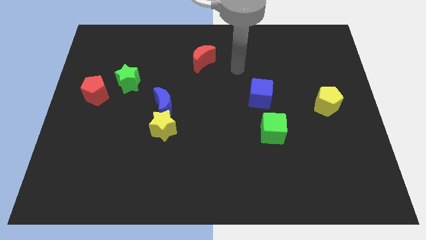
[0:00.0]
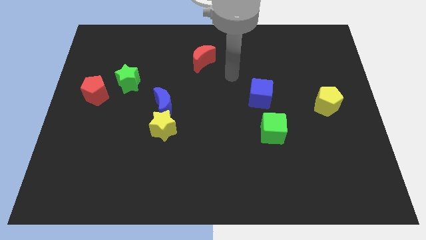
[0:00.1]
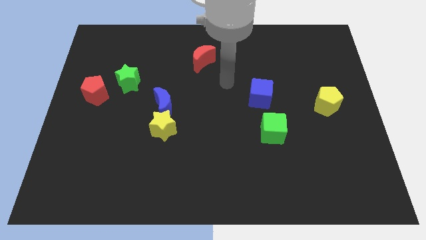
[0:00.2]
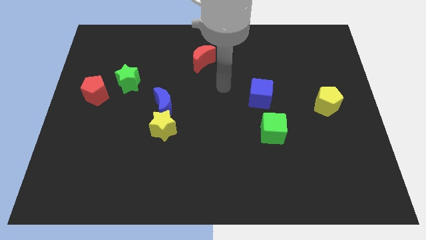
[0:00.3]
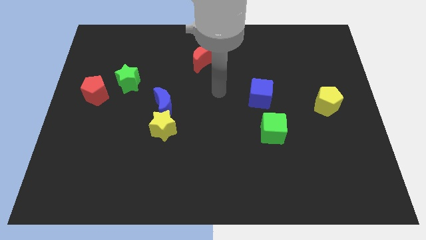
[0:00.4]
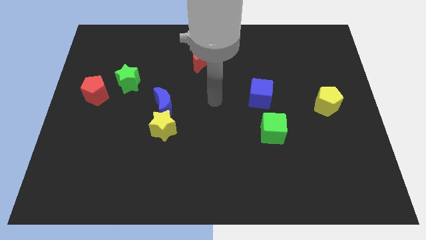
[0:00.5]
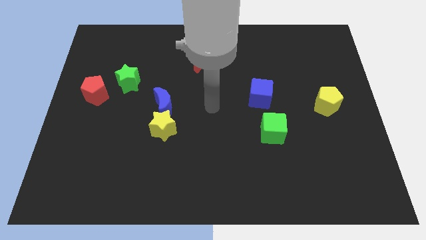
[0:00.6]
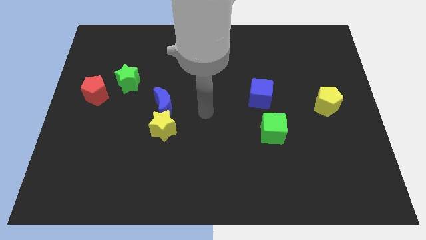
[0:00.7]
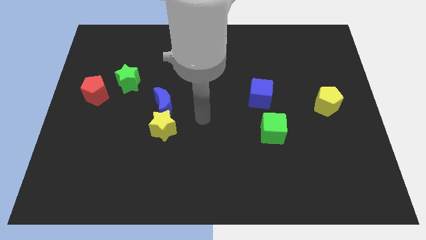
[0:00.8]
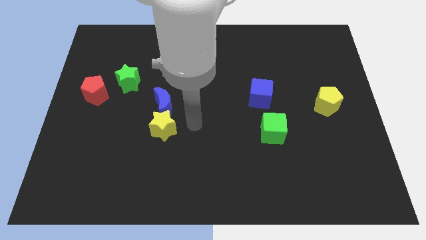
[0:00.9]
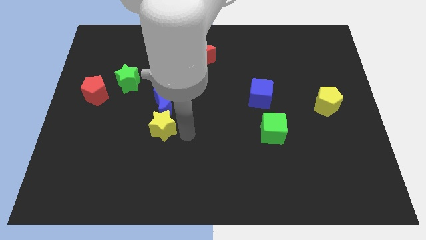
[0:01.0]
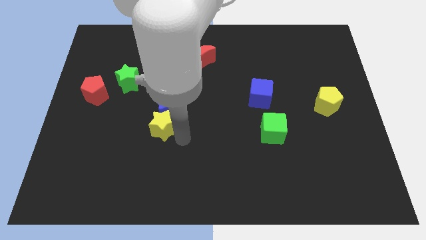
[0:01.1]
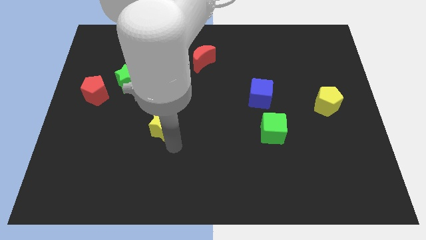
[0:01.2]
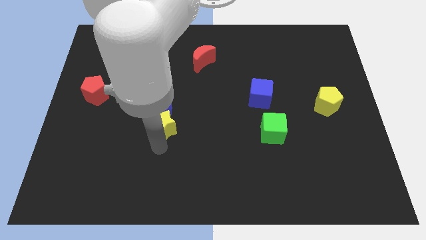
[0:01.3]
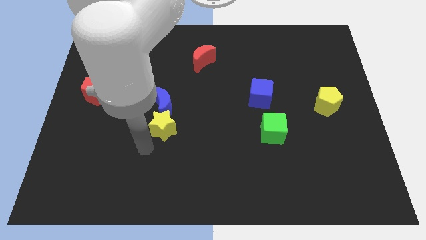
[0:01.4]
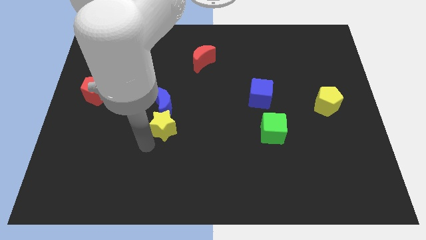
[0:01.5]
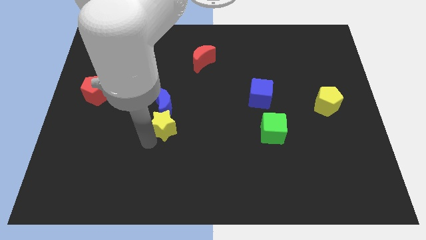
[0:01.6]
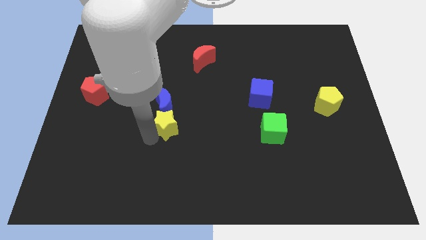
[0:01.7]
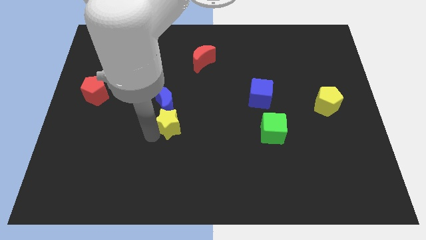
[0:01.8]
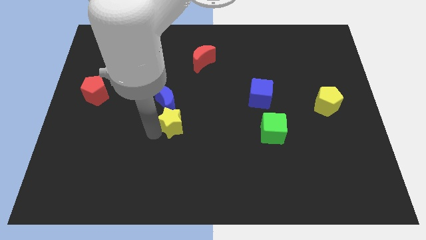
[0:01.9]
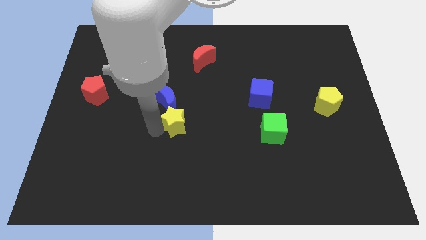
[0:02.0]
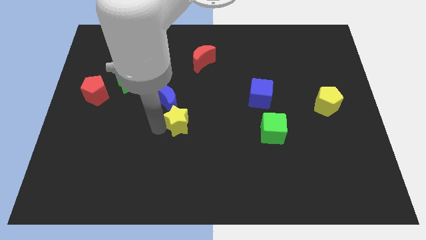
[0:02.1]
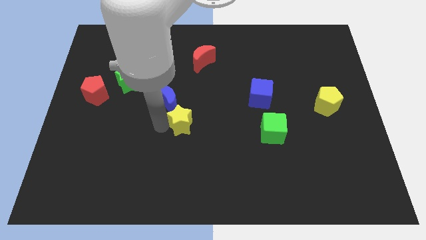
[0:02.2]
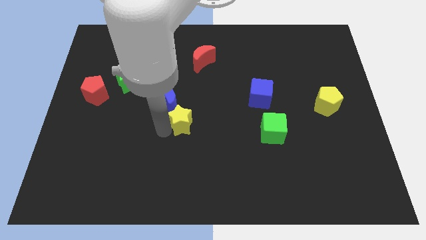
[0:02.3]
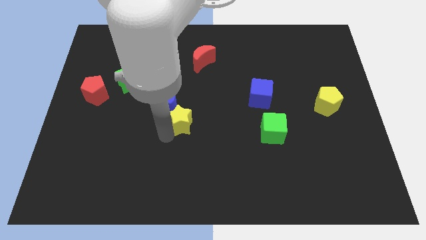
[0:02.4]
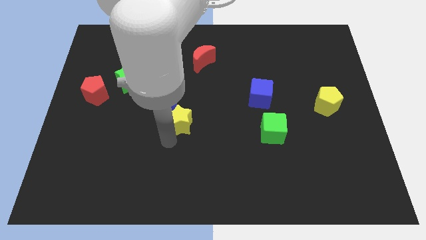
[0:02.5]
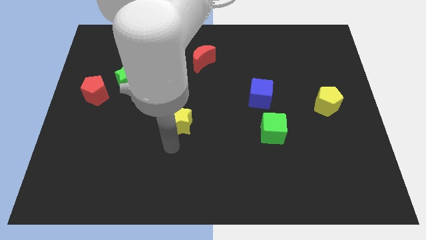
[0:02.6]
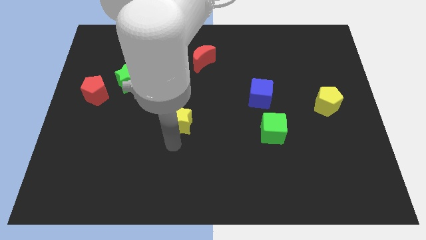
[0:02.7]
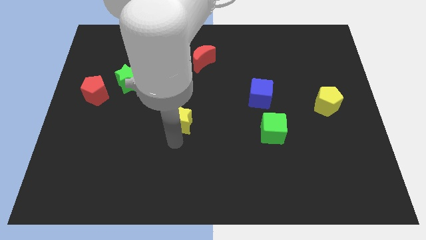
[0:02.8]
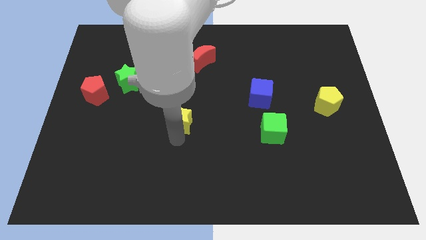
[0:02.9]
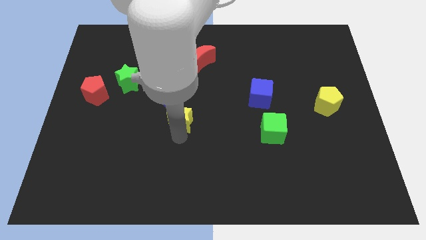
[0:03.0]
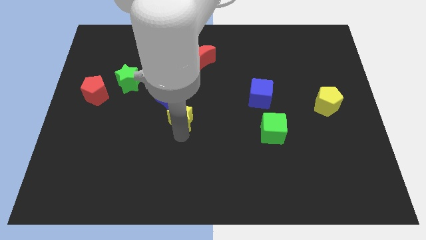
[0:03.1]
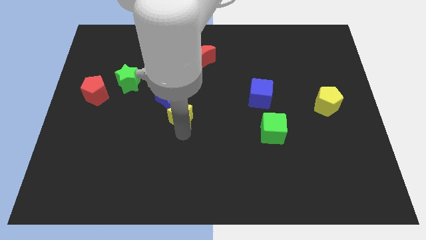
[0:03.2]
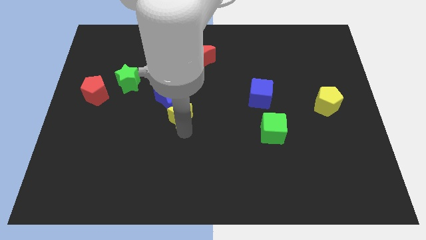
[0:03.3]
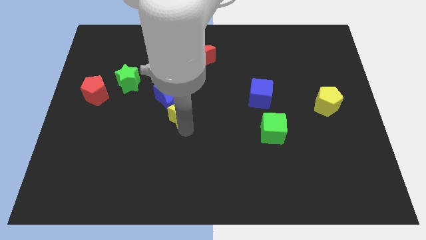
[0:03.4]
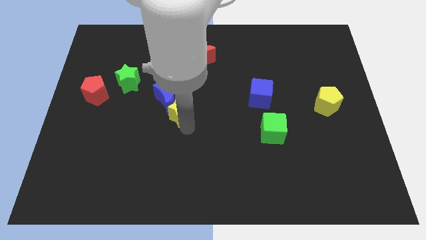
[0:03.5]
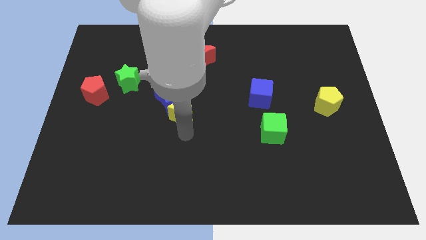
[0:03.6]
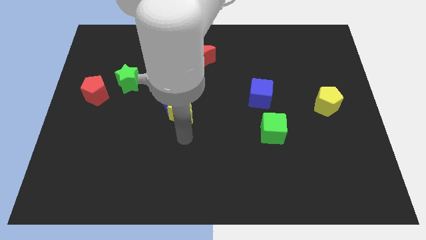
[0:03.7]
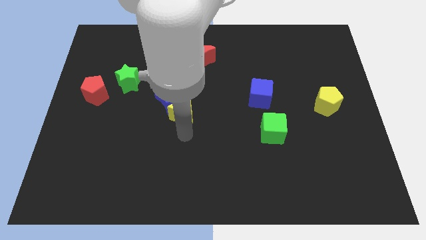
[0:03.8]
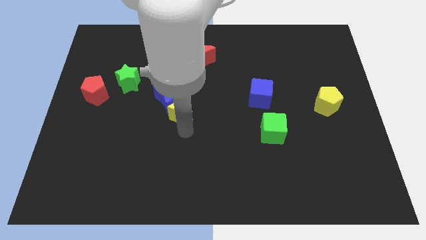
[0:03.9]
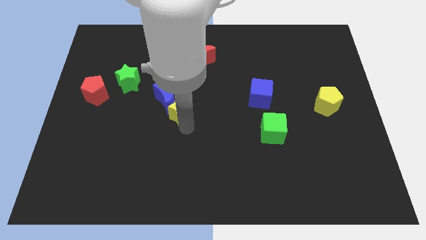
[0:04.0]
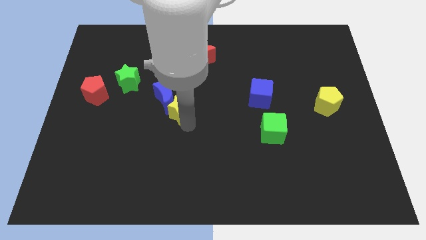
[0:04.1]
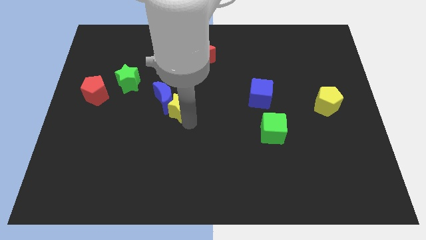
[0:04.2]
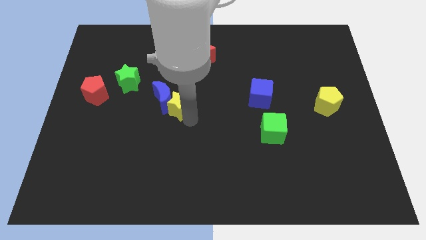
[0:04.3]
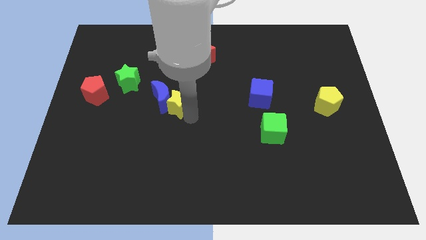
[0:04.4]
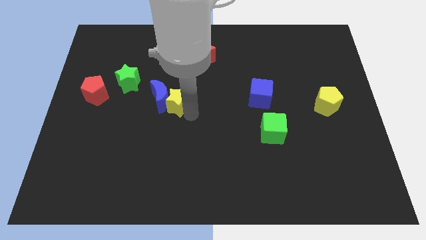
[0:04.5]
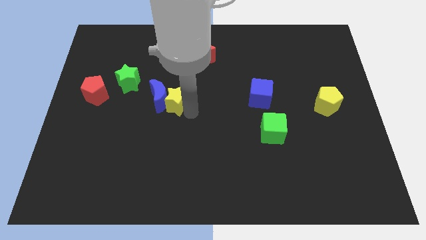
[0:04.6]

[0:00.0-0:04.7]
slide the yellow star a bit up

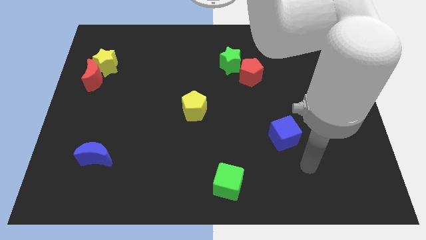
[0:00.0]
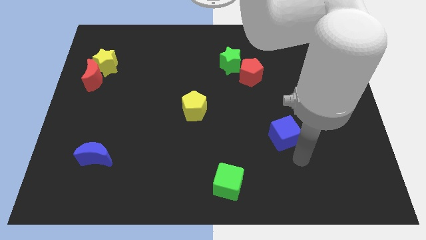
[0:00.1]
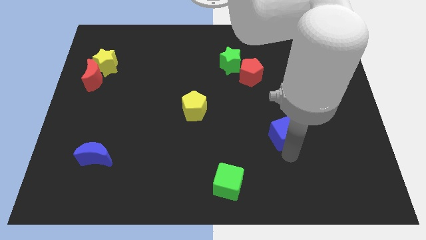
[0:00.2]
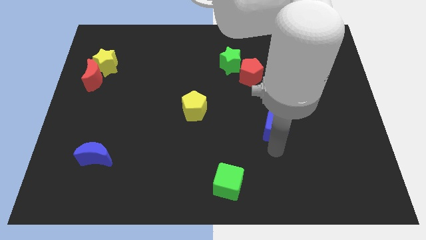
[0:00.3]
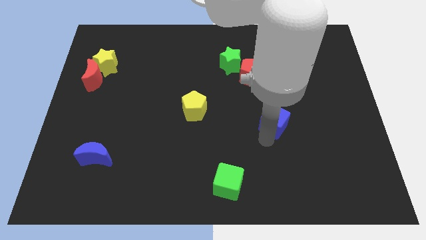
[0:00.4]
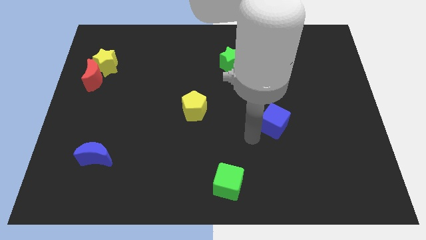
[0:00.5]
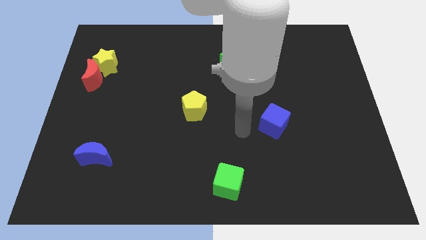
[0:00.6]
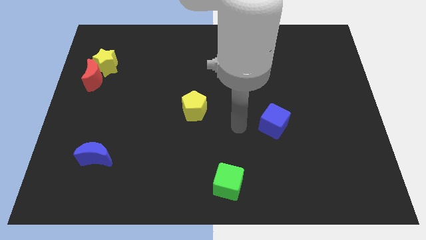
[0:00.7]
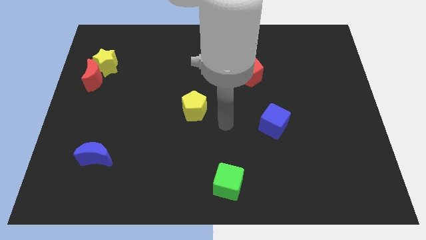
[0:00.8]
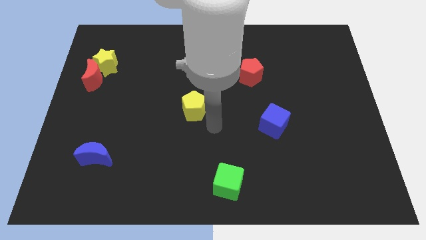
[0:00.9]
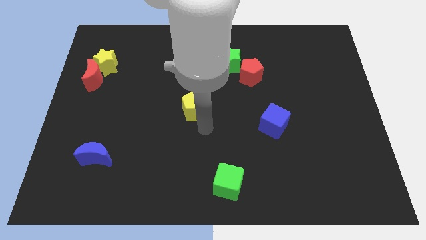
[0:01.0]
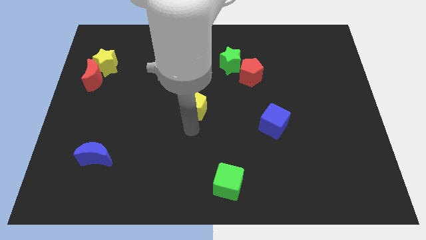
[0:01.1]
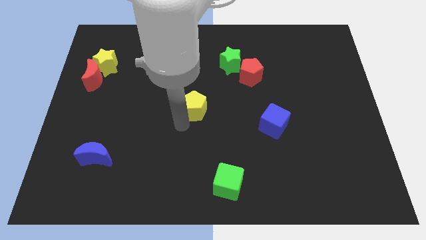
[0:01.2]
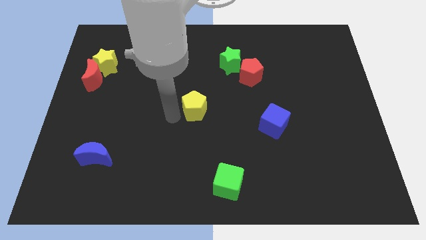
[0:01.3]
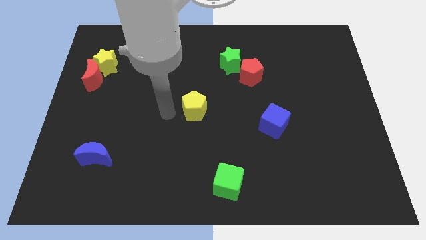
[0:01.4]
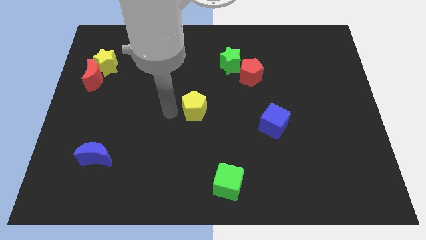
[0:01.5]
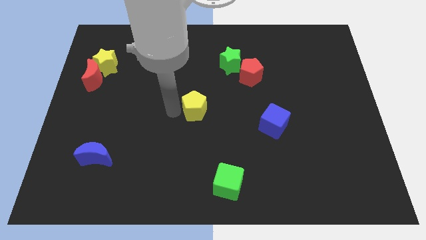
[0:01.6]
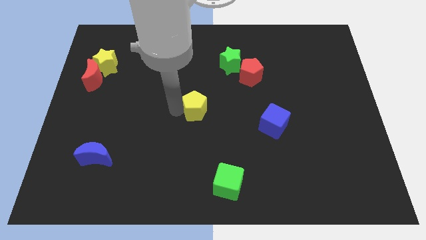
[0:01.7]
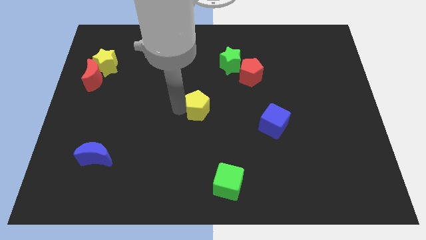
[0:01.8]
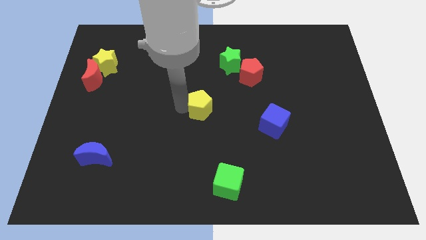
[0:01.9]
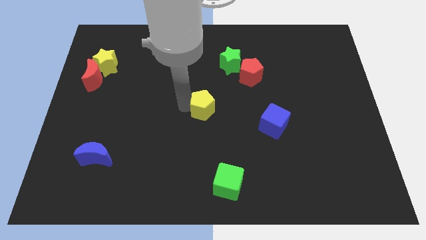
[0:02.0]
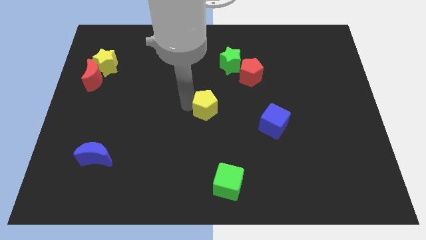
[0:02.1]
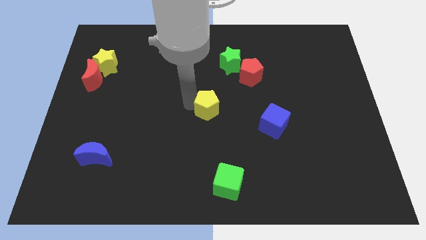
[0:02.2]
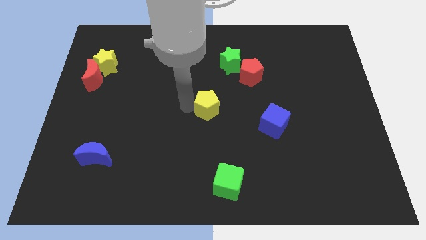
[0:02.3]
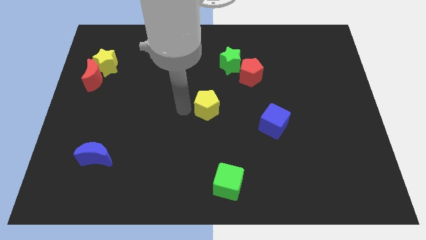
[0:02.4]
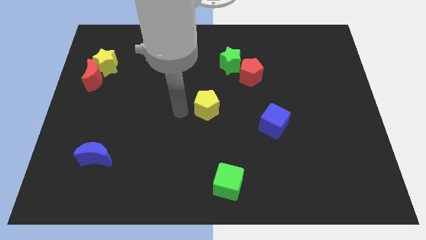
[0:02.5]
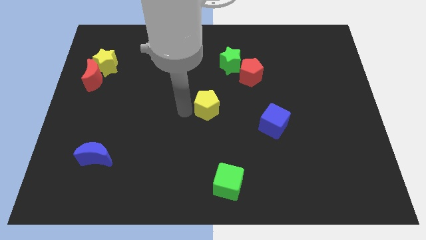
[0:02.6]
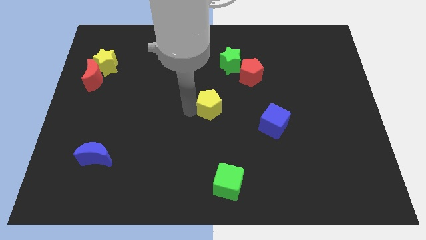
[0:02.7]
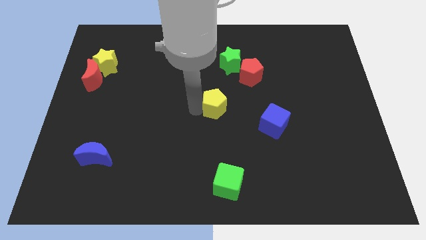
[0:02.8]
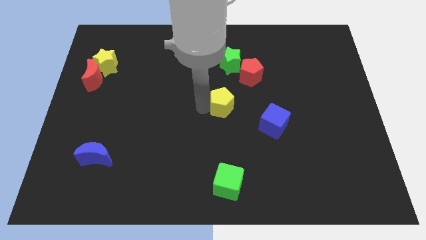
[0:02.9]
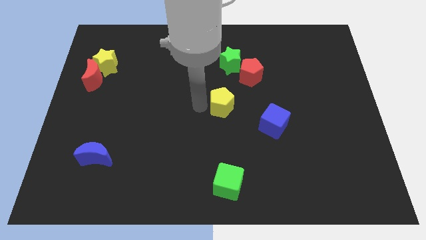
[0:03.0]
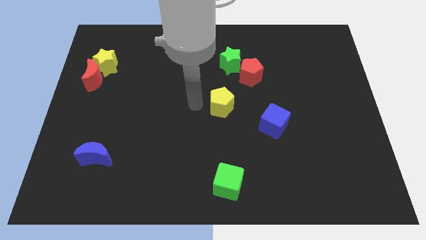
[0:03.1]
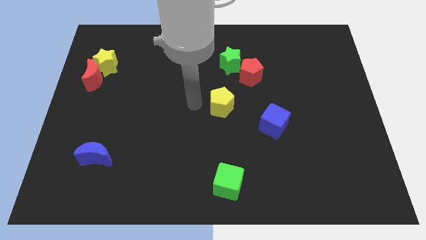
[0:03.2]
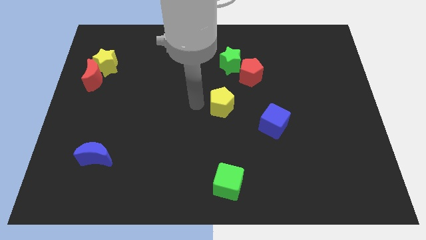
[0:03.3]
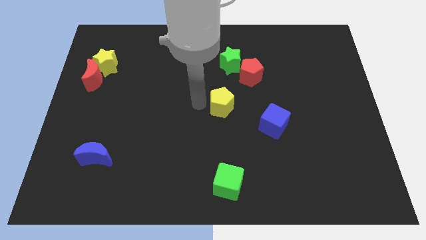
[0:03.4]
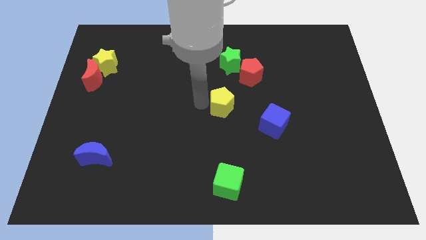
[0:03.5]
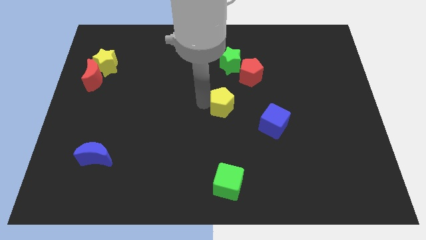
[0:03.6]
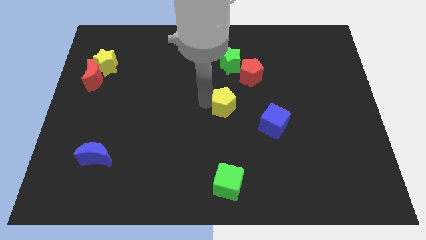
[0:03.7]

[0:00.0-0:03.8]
push the yellow pentagon somewhat right
